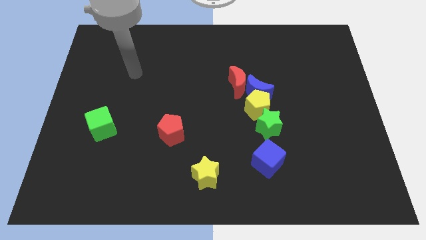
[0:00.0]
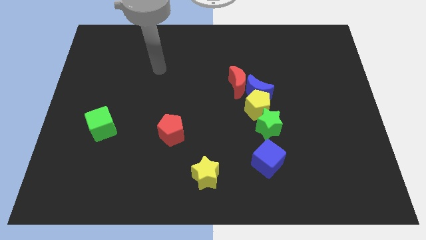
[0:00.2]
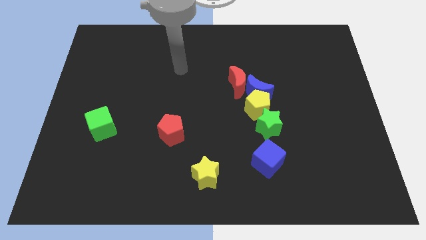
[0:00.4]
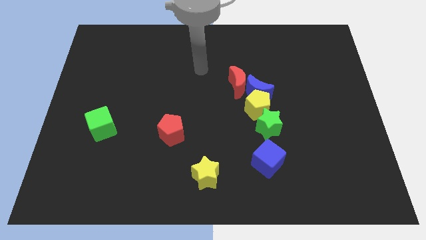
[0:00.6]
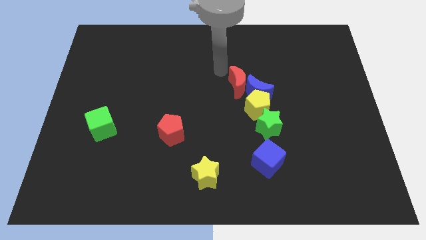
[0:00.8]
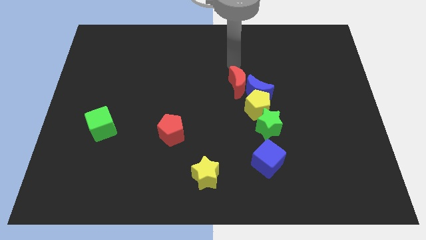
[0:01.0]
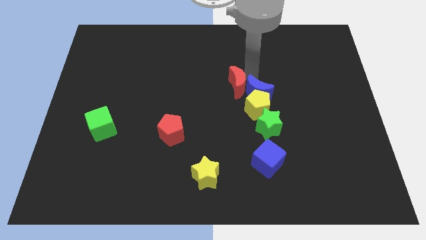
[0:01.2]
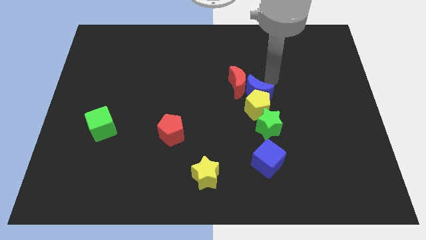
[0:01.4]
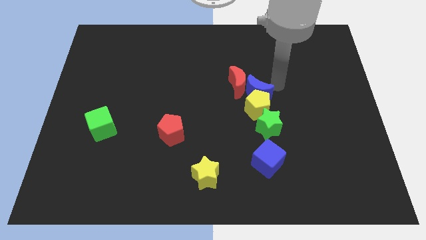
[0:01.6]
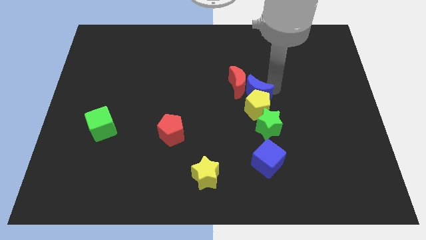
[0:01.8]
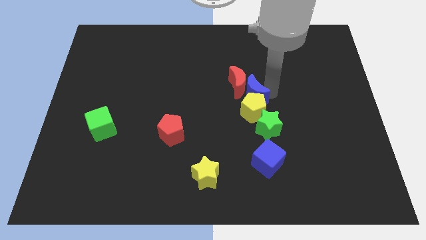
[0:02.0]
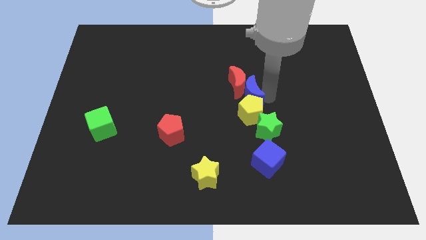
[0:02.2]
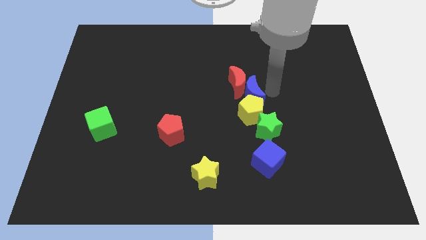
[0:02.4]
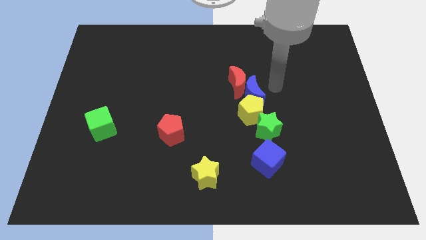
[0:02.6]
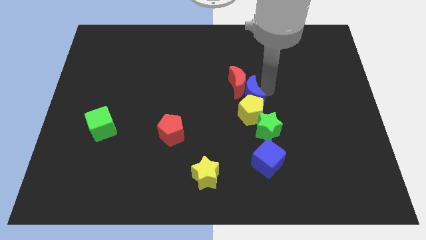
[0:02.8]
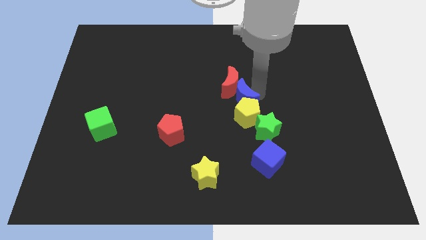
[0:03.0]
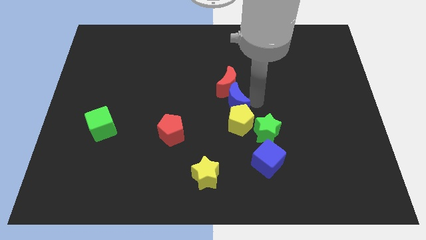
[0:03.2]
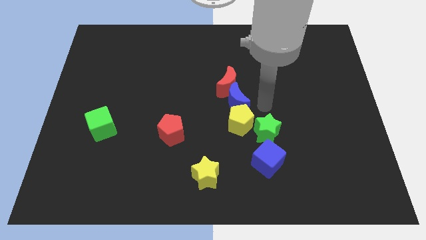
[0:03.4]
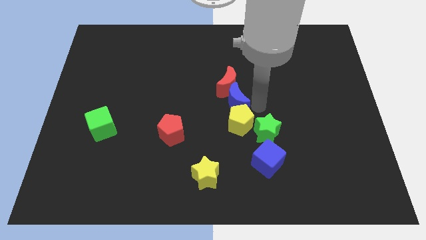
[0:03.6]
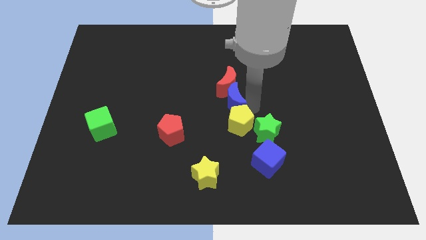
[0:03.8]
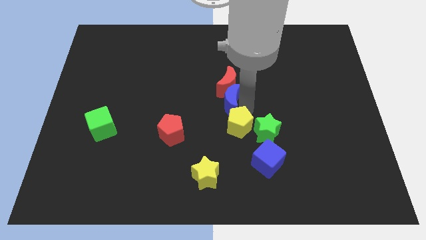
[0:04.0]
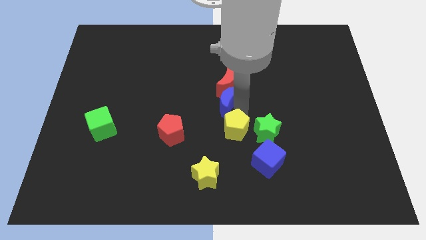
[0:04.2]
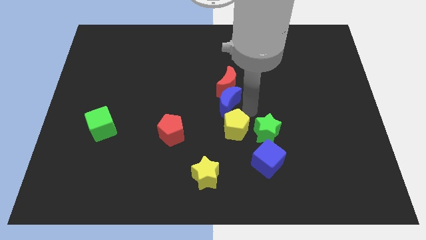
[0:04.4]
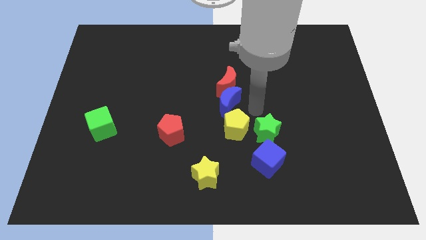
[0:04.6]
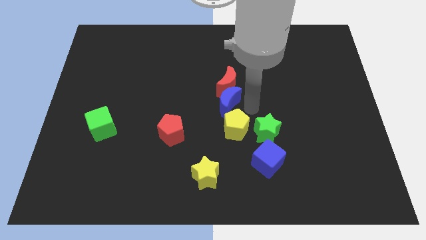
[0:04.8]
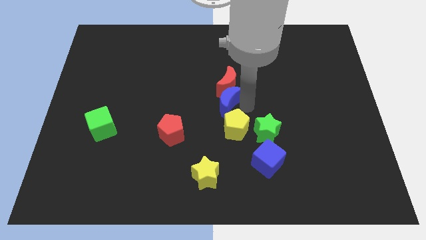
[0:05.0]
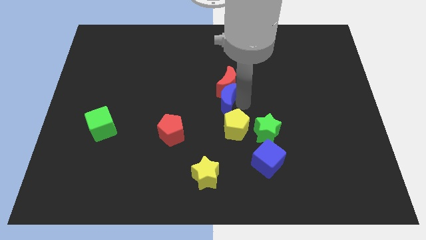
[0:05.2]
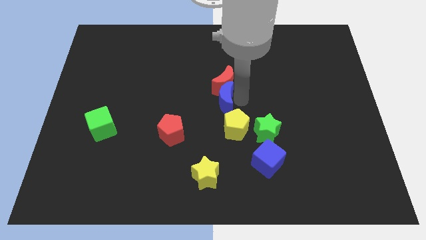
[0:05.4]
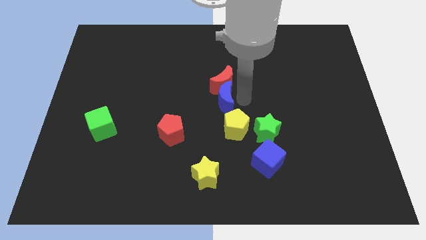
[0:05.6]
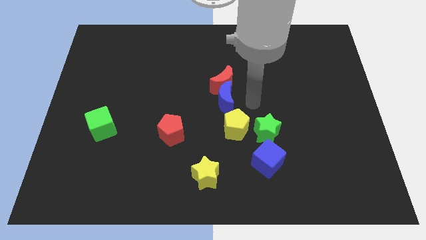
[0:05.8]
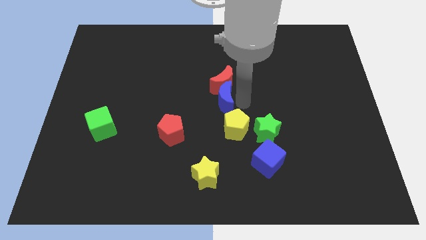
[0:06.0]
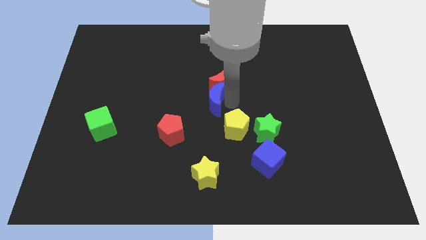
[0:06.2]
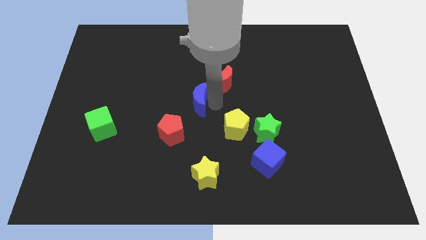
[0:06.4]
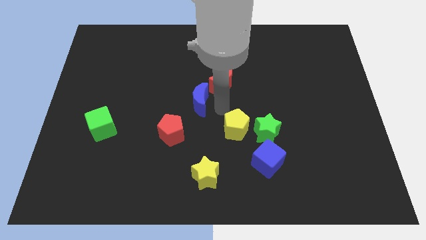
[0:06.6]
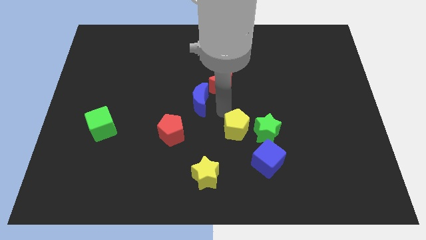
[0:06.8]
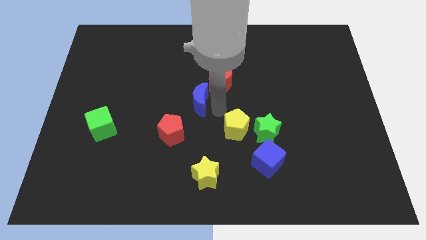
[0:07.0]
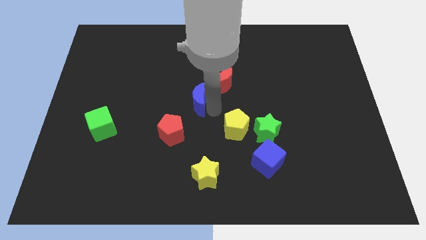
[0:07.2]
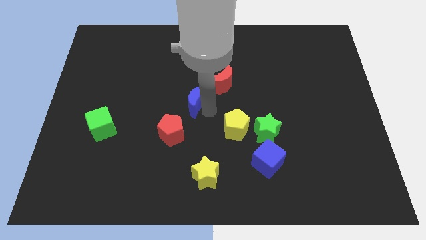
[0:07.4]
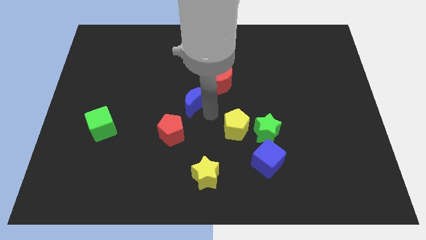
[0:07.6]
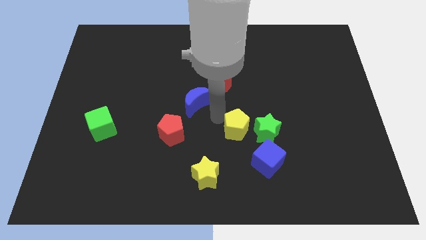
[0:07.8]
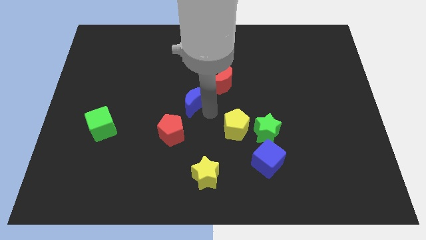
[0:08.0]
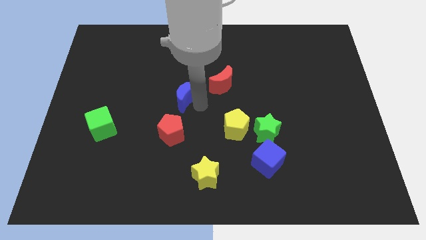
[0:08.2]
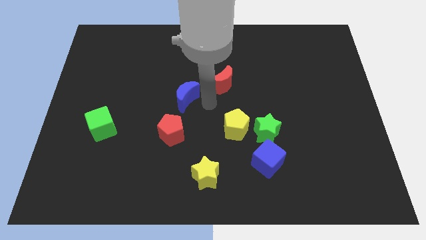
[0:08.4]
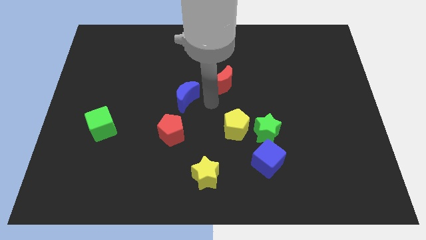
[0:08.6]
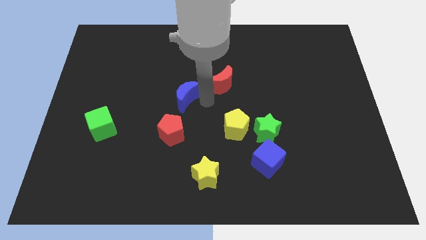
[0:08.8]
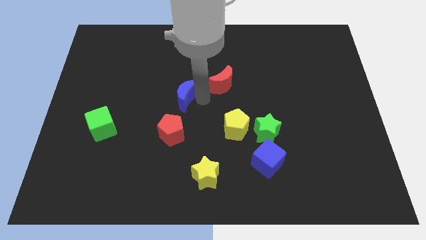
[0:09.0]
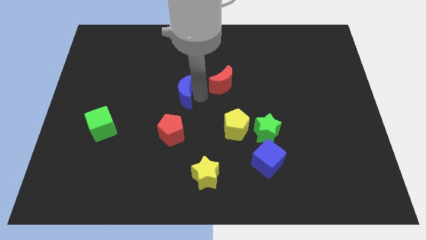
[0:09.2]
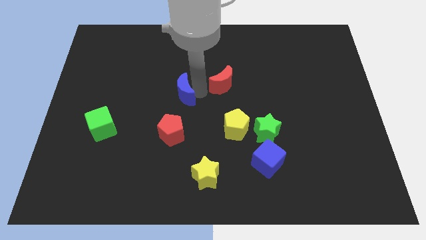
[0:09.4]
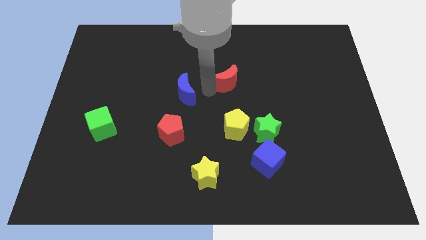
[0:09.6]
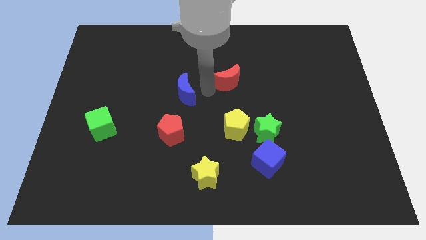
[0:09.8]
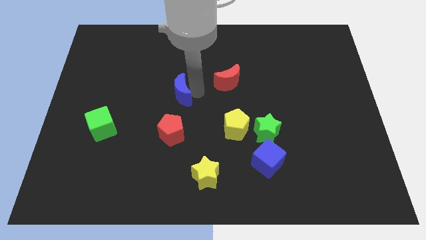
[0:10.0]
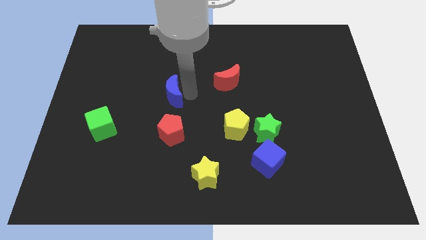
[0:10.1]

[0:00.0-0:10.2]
push the blue moon to the left

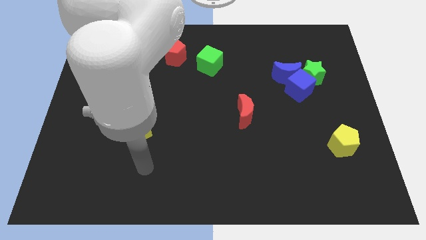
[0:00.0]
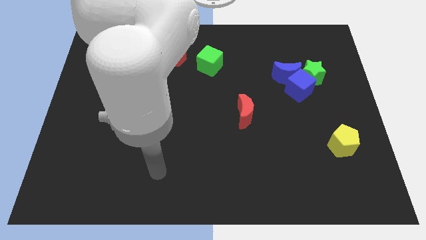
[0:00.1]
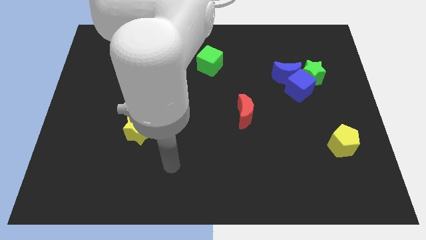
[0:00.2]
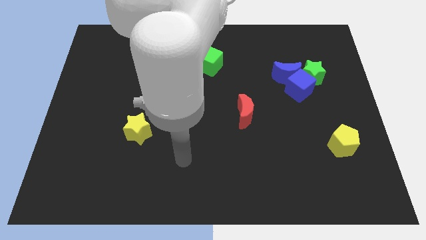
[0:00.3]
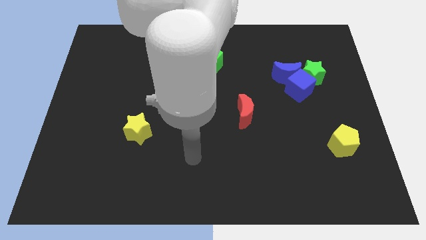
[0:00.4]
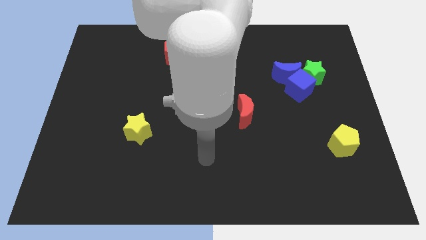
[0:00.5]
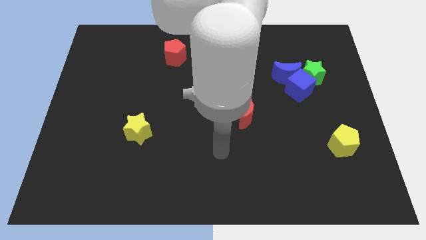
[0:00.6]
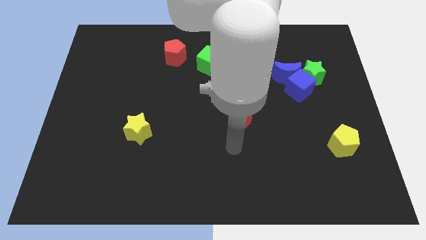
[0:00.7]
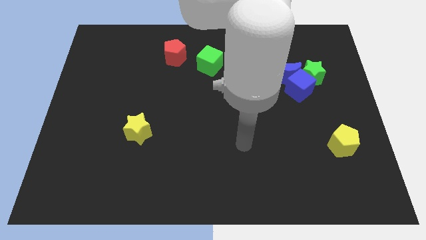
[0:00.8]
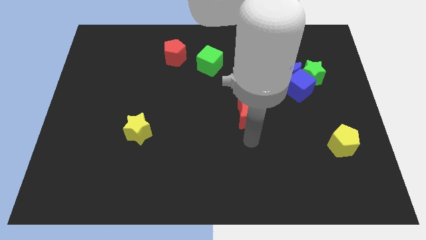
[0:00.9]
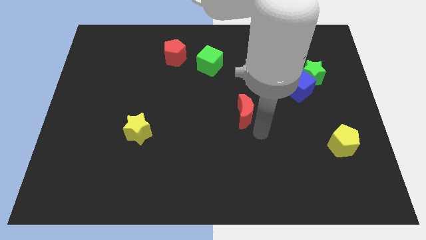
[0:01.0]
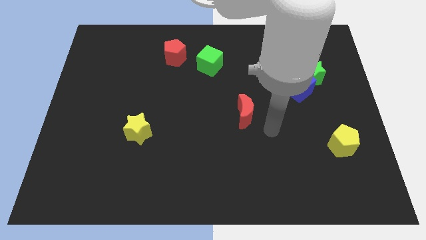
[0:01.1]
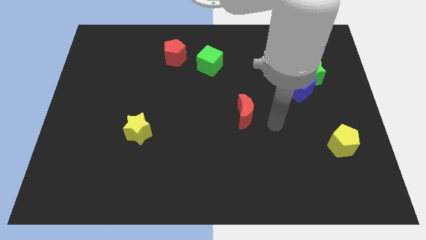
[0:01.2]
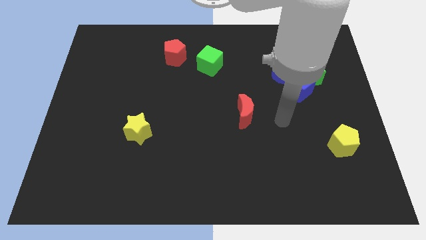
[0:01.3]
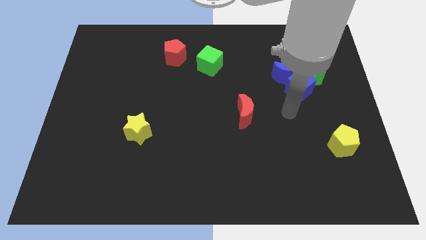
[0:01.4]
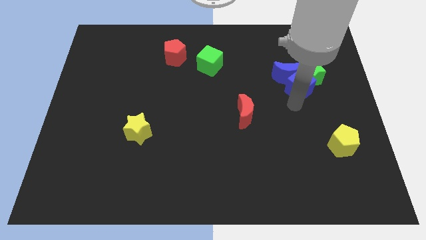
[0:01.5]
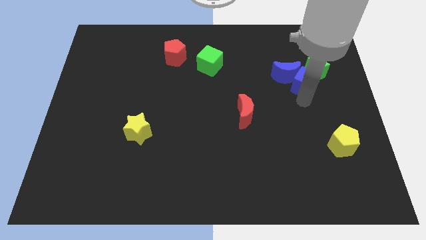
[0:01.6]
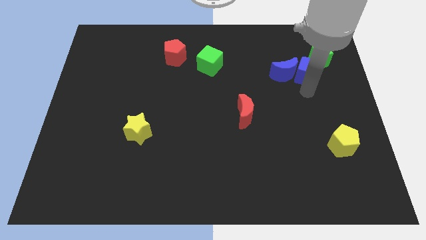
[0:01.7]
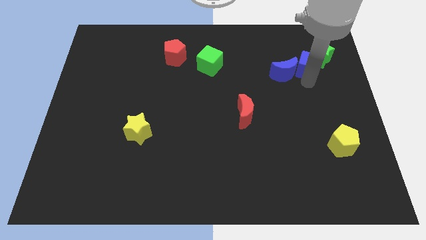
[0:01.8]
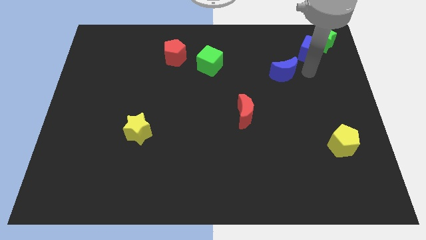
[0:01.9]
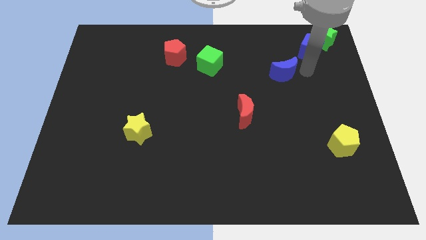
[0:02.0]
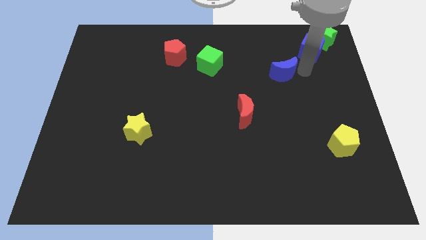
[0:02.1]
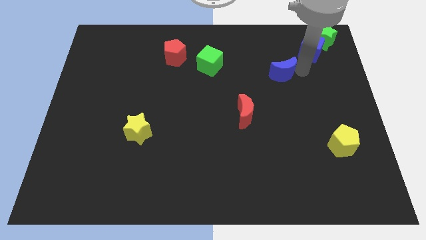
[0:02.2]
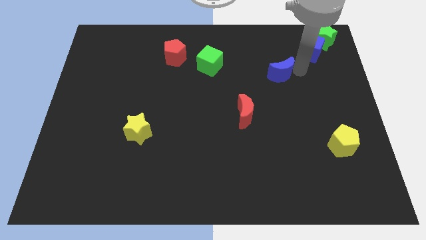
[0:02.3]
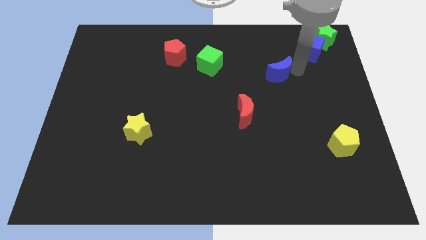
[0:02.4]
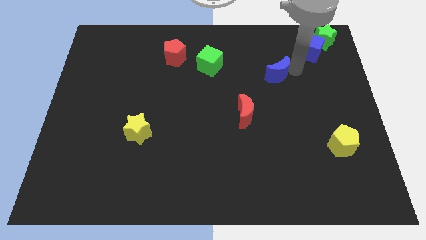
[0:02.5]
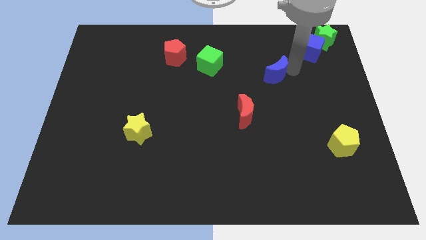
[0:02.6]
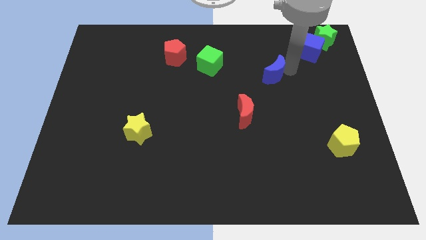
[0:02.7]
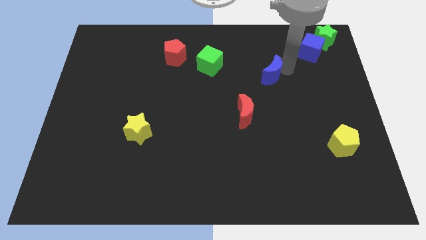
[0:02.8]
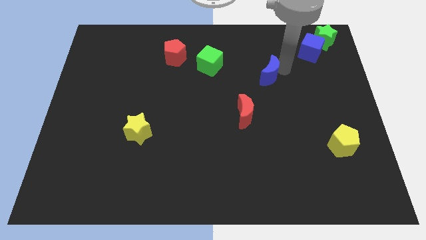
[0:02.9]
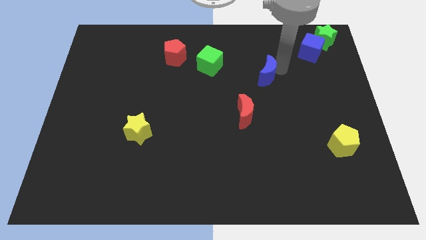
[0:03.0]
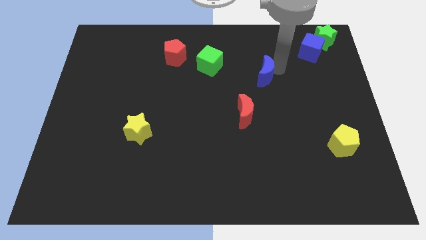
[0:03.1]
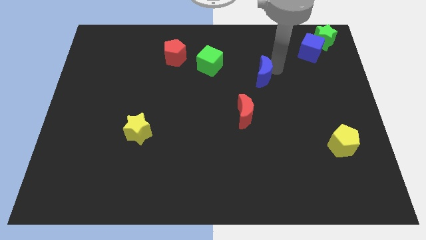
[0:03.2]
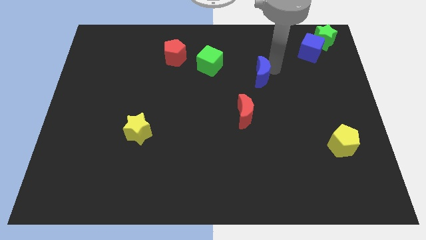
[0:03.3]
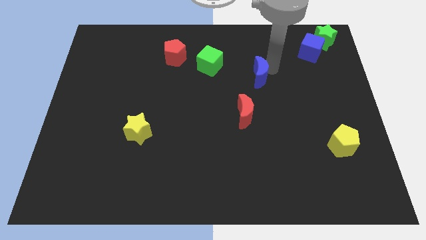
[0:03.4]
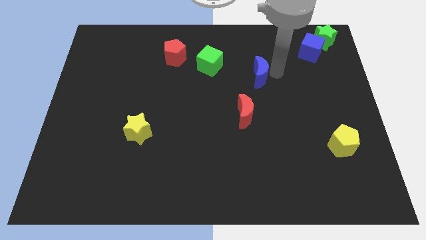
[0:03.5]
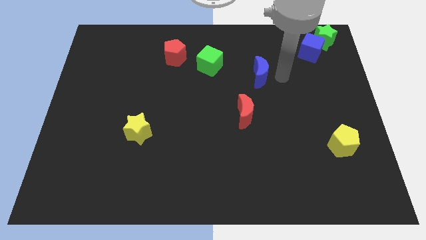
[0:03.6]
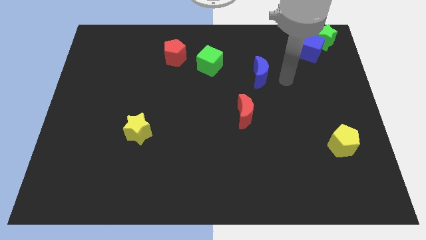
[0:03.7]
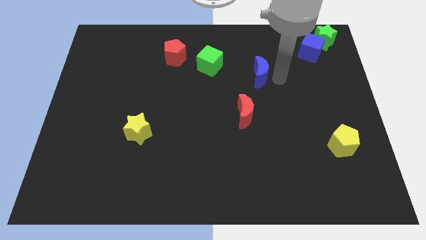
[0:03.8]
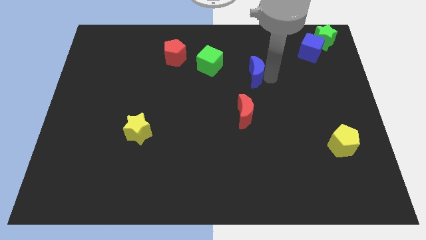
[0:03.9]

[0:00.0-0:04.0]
slightly push the blue moon left
